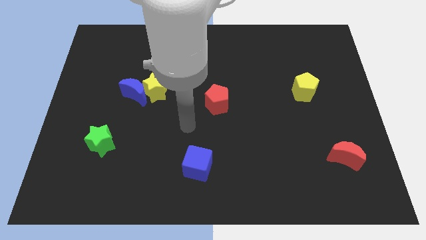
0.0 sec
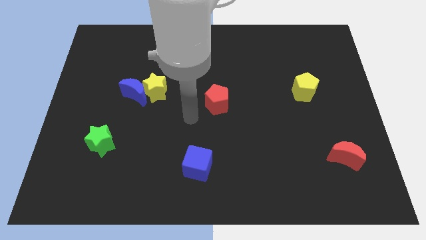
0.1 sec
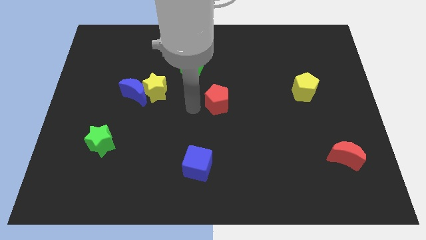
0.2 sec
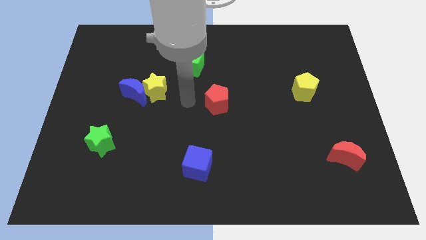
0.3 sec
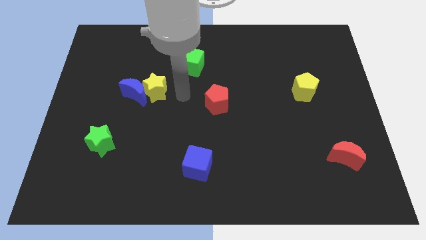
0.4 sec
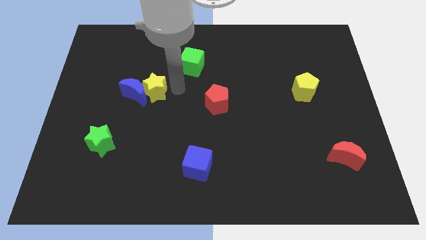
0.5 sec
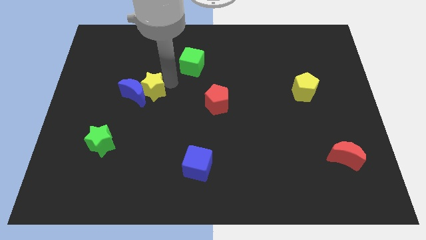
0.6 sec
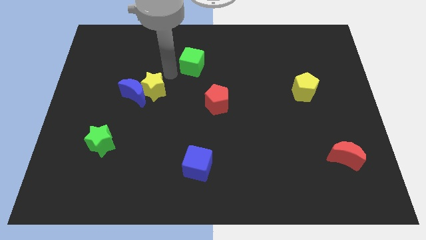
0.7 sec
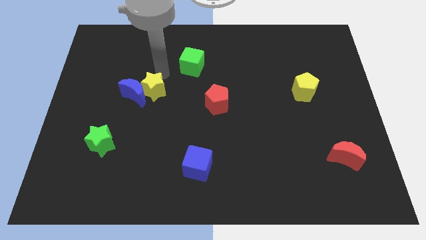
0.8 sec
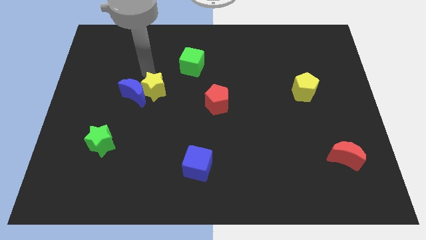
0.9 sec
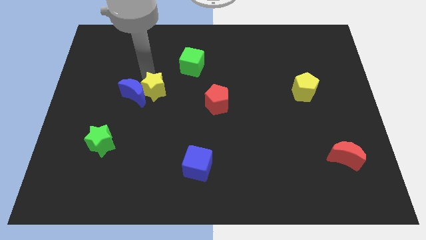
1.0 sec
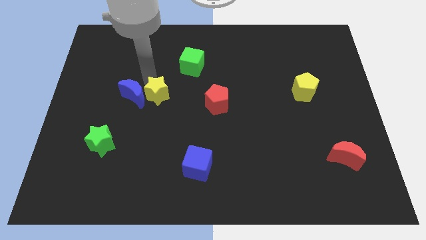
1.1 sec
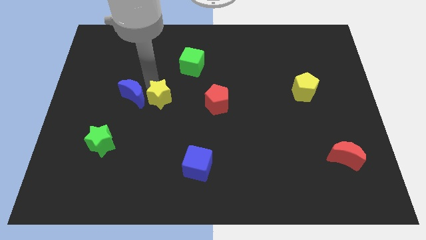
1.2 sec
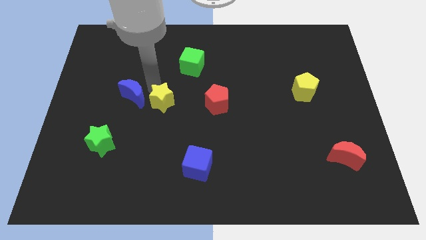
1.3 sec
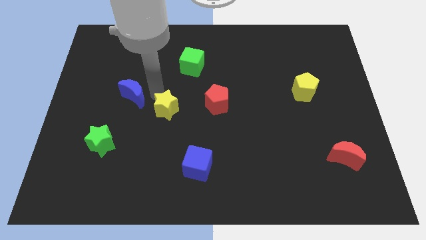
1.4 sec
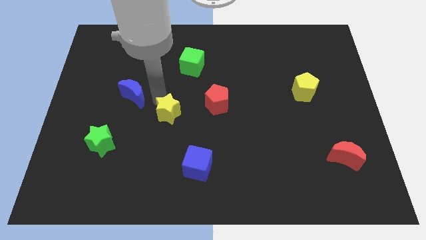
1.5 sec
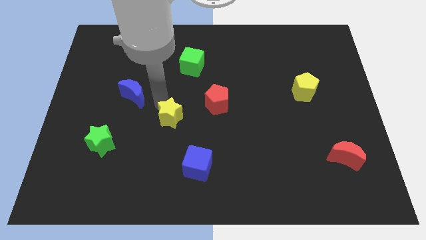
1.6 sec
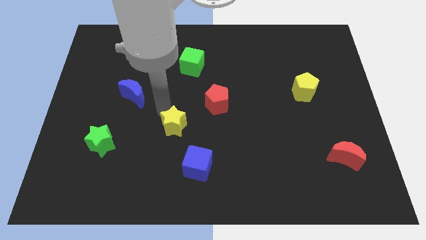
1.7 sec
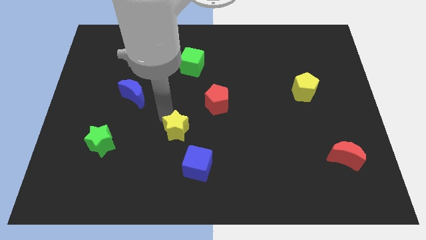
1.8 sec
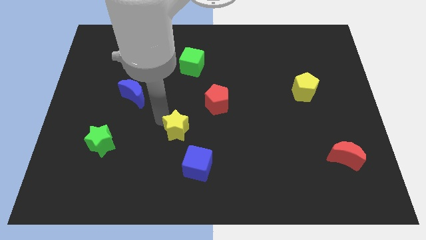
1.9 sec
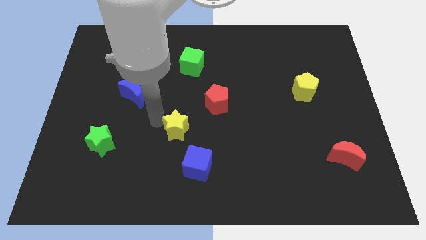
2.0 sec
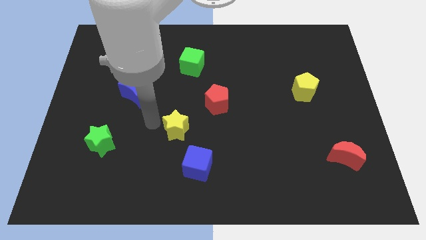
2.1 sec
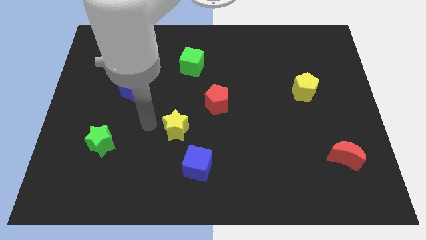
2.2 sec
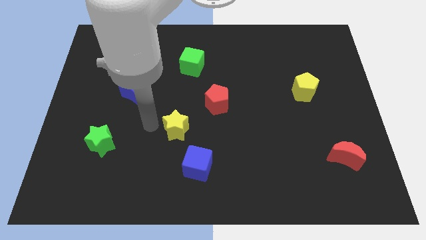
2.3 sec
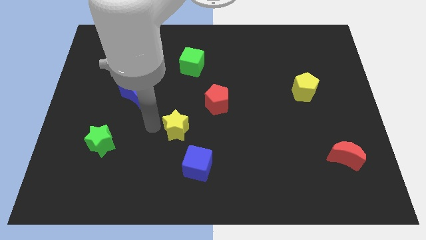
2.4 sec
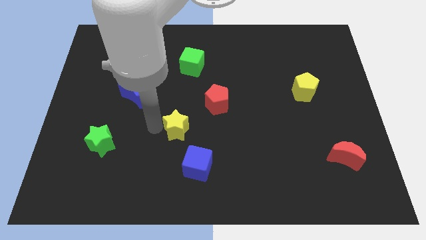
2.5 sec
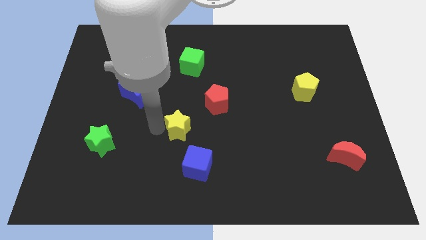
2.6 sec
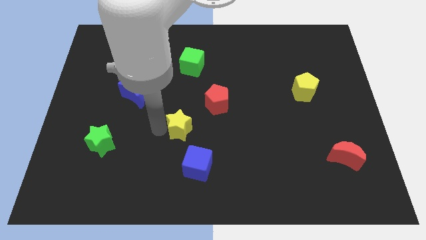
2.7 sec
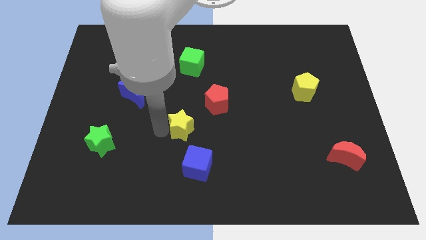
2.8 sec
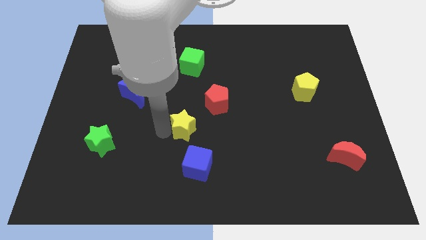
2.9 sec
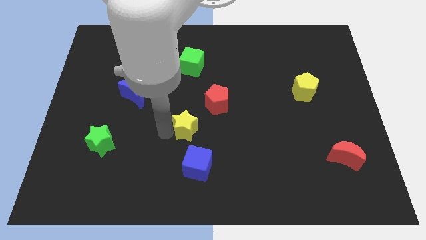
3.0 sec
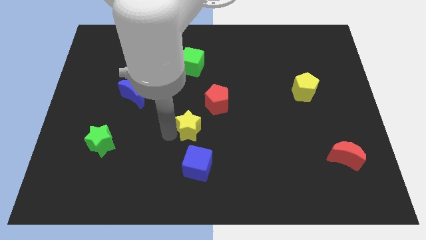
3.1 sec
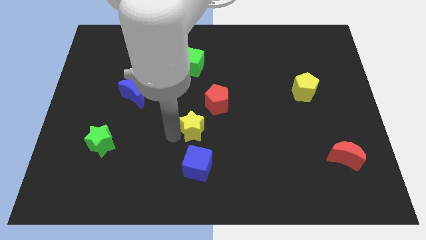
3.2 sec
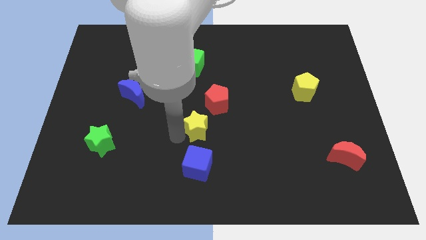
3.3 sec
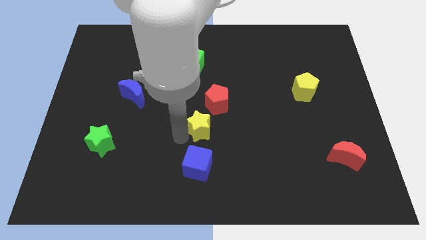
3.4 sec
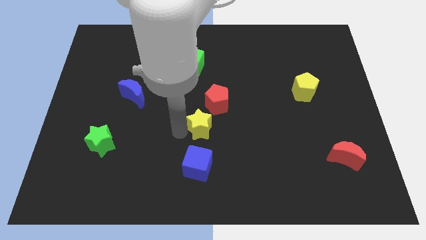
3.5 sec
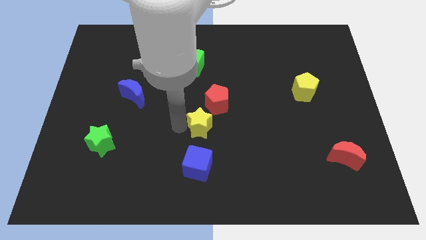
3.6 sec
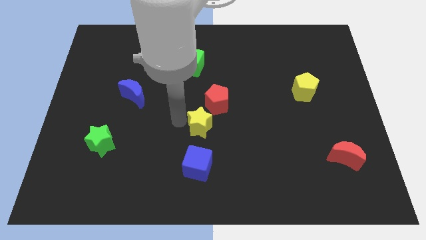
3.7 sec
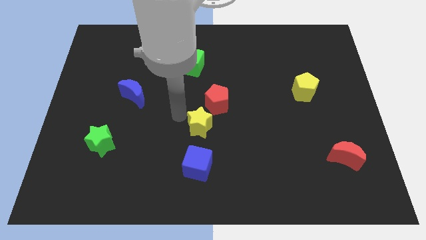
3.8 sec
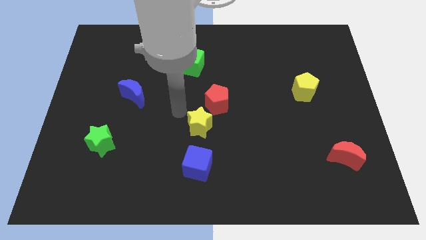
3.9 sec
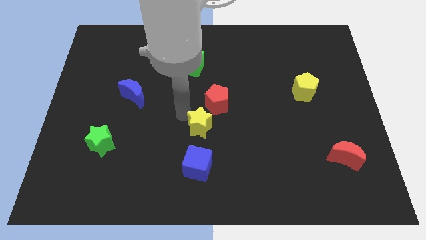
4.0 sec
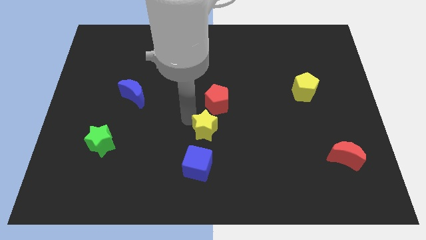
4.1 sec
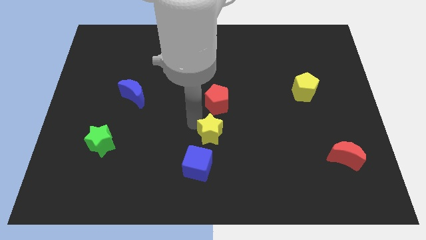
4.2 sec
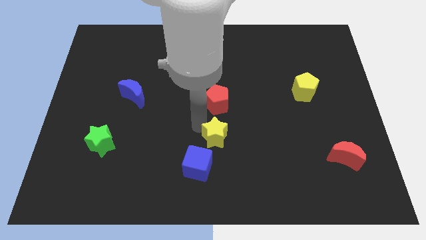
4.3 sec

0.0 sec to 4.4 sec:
push the yellow star down and to the right diagonally

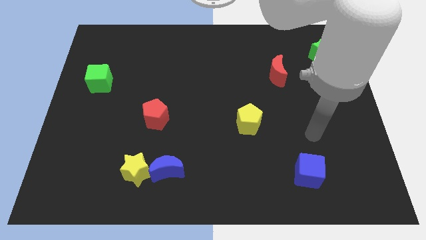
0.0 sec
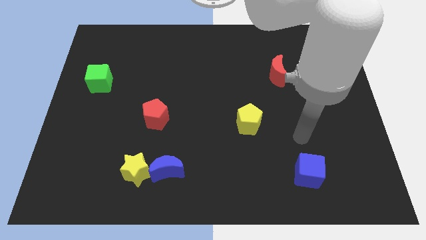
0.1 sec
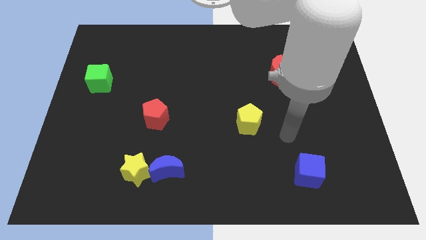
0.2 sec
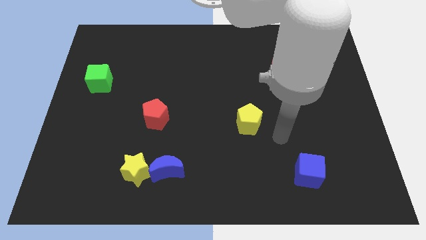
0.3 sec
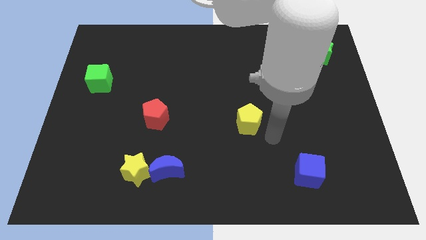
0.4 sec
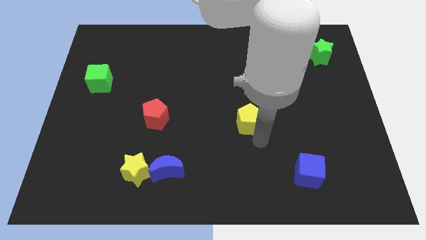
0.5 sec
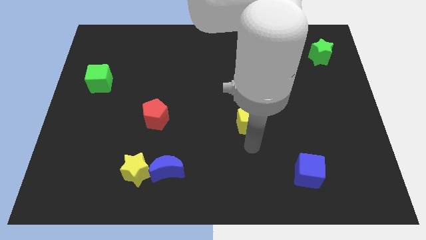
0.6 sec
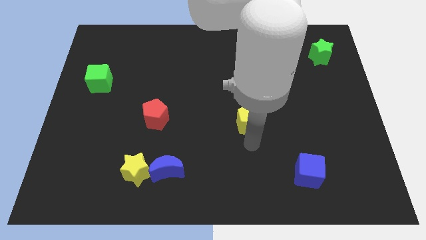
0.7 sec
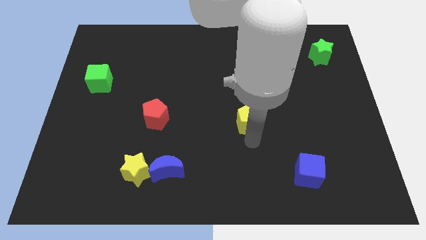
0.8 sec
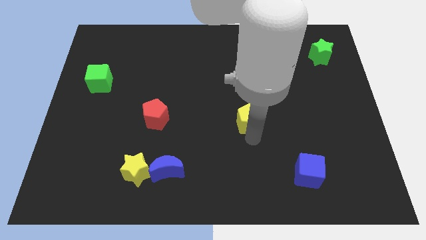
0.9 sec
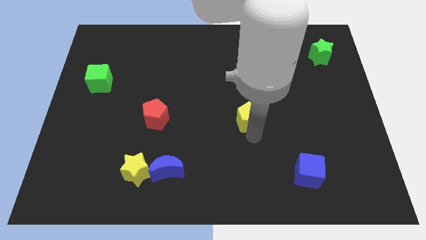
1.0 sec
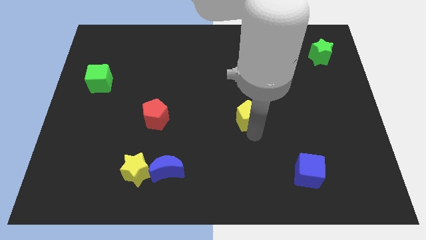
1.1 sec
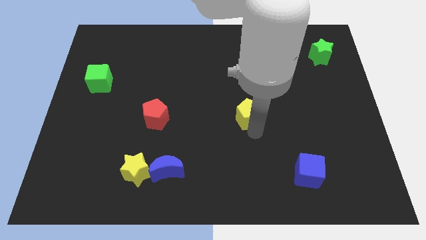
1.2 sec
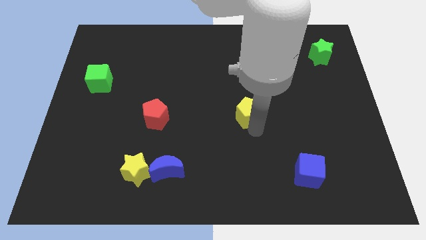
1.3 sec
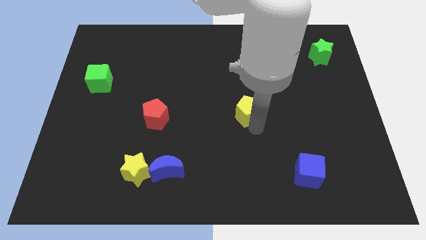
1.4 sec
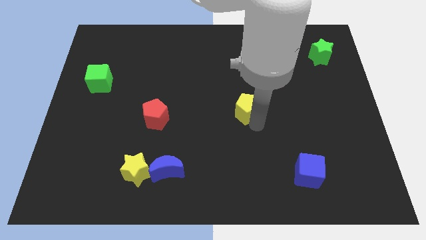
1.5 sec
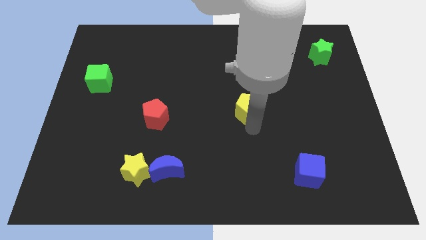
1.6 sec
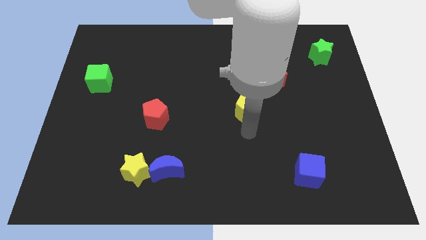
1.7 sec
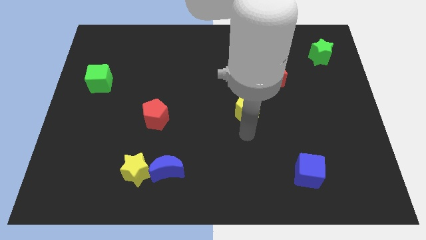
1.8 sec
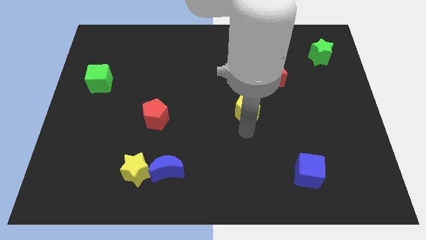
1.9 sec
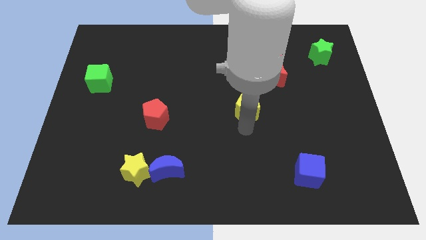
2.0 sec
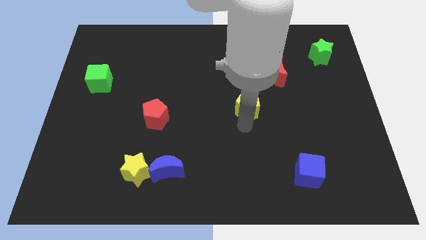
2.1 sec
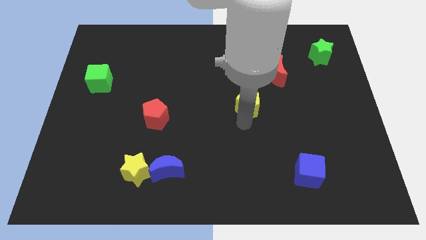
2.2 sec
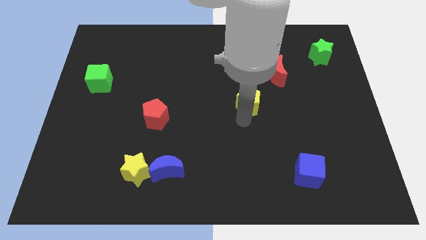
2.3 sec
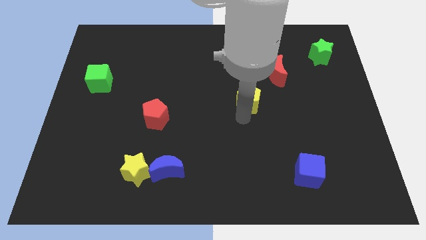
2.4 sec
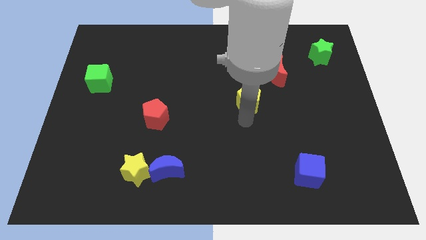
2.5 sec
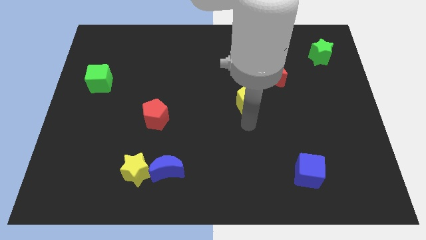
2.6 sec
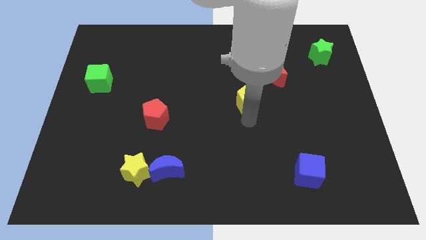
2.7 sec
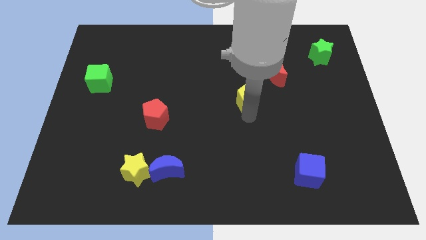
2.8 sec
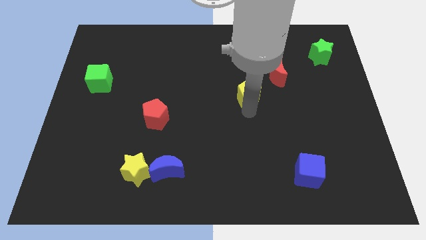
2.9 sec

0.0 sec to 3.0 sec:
move the yellow pentagon a little bit up

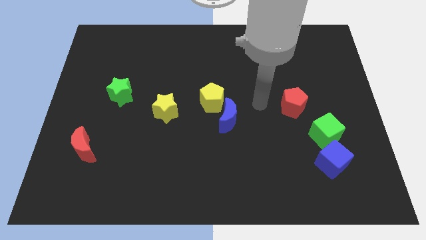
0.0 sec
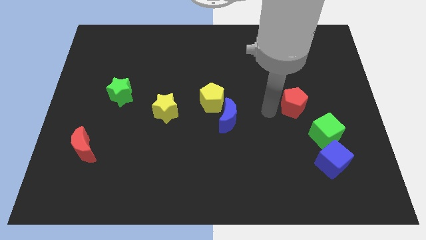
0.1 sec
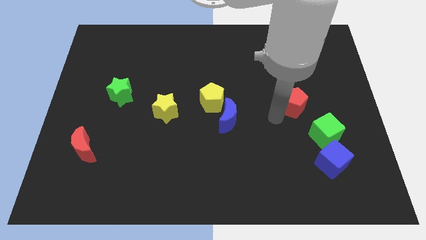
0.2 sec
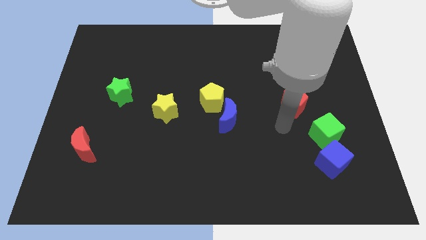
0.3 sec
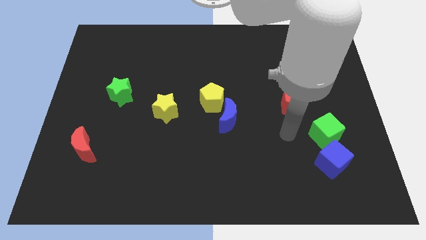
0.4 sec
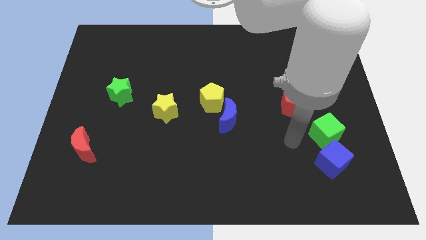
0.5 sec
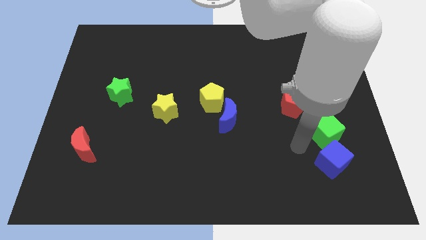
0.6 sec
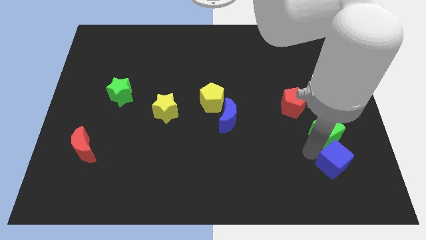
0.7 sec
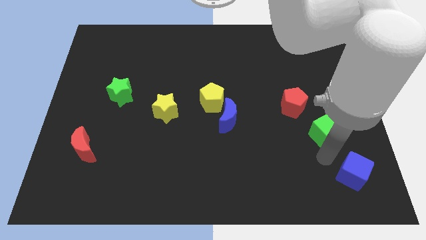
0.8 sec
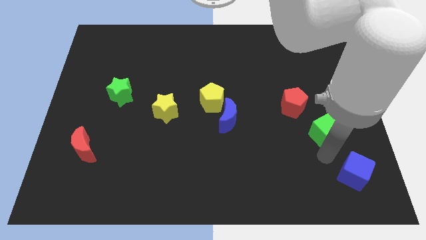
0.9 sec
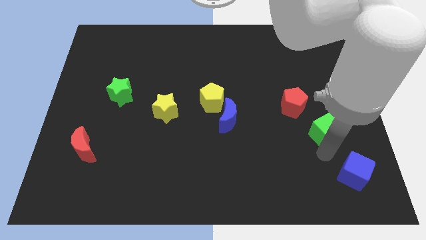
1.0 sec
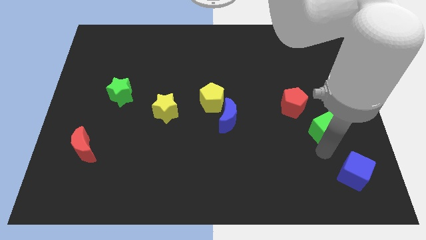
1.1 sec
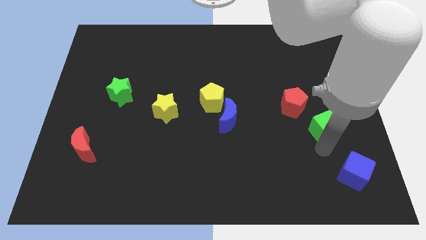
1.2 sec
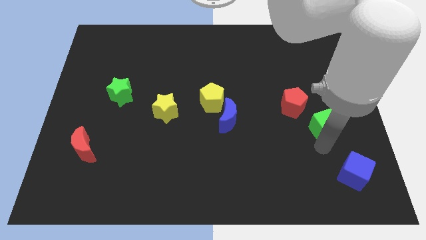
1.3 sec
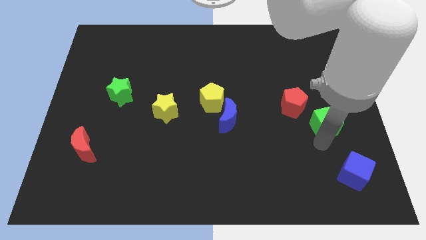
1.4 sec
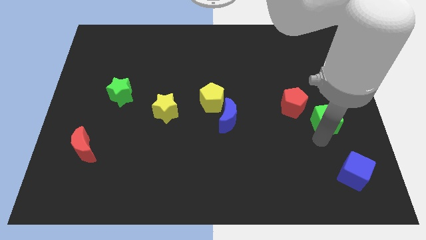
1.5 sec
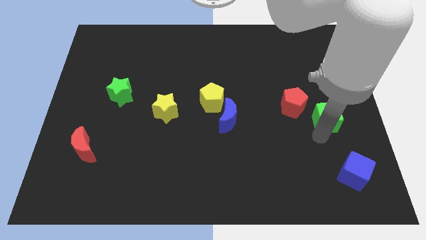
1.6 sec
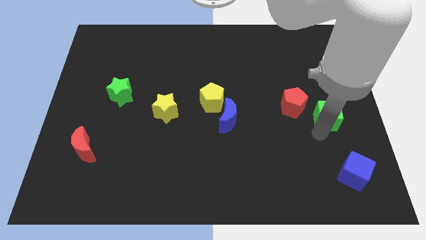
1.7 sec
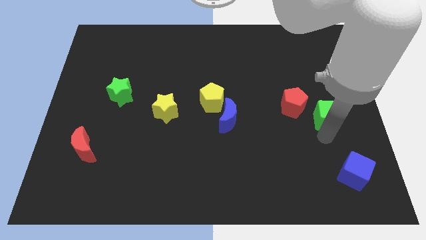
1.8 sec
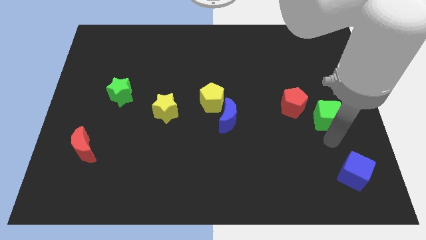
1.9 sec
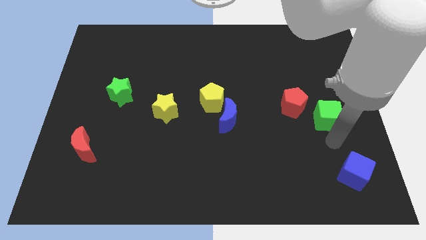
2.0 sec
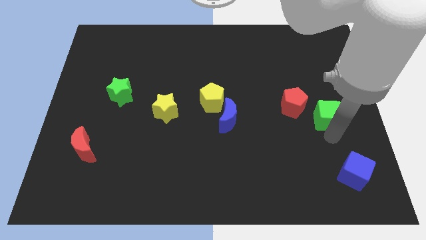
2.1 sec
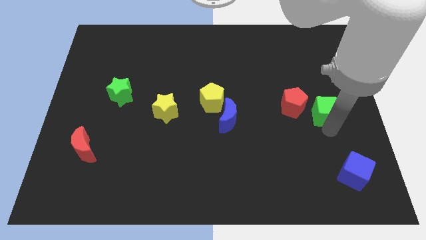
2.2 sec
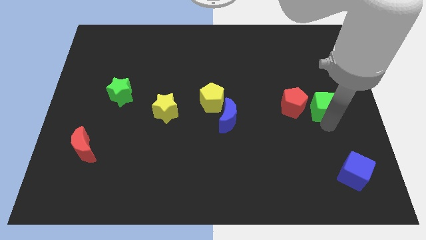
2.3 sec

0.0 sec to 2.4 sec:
push the green cube up a little
